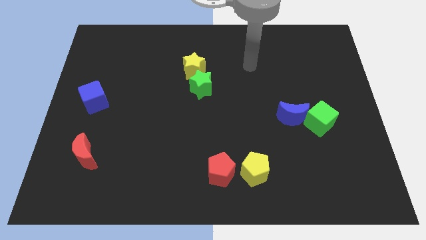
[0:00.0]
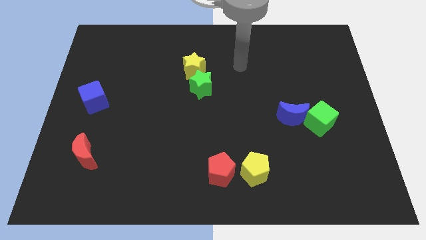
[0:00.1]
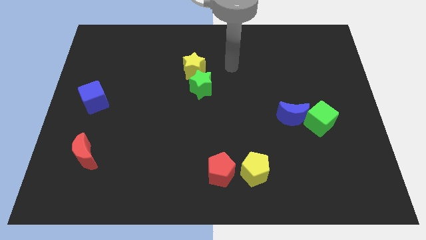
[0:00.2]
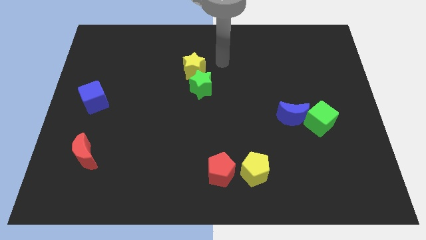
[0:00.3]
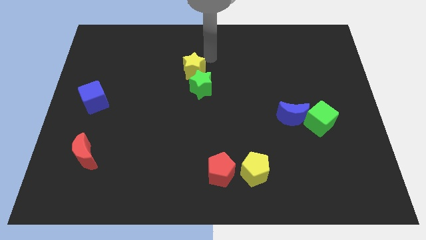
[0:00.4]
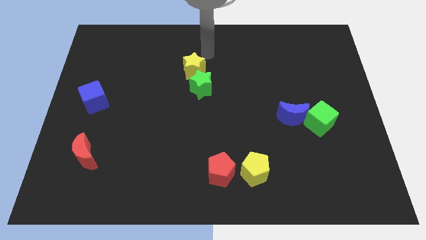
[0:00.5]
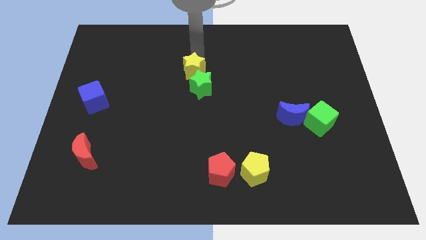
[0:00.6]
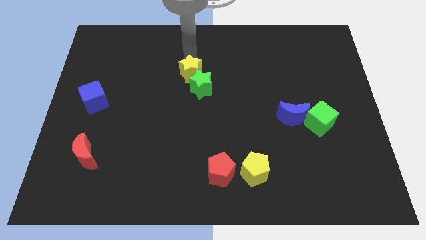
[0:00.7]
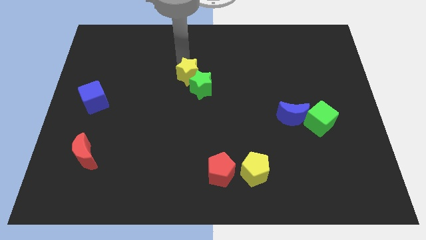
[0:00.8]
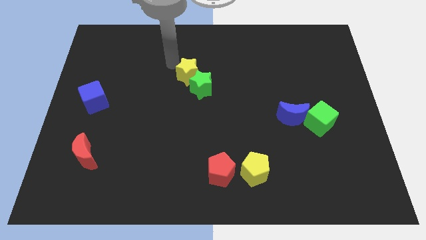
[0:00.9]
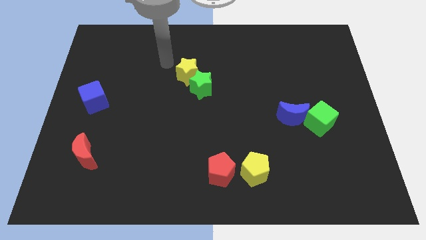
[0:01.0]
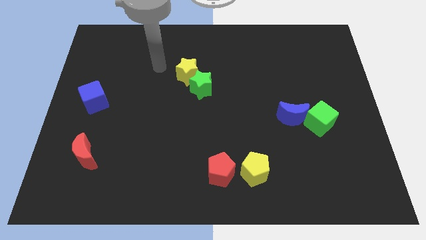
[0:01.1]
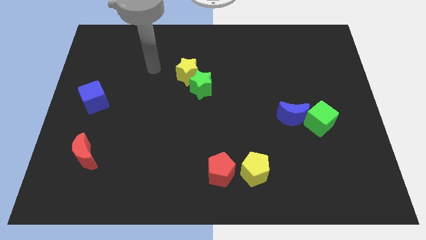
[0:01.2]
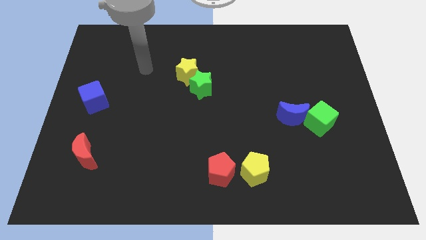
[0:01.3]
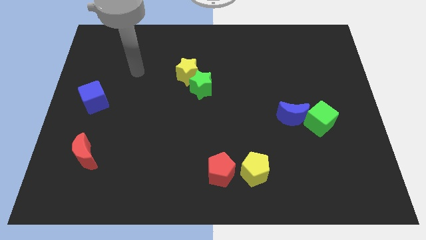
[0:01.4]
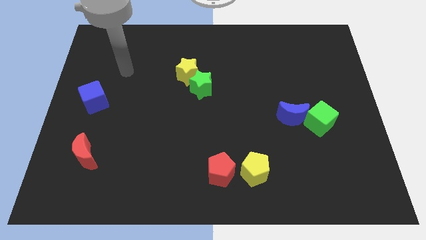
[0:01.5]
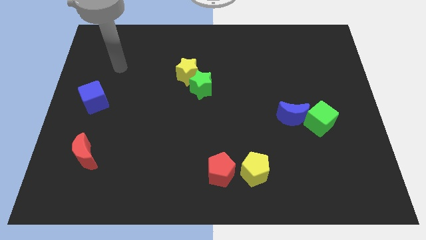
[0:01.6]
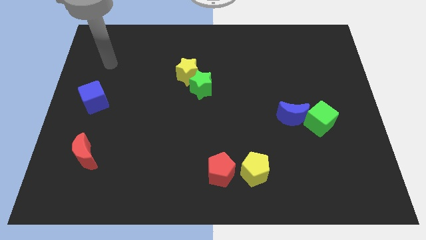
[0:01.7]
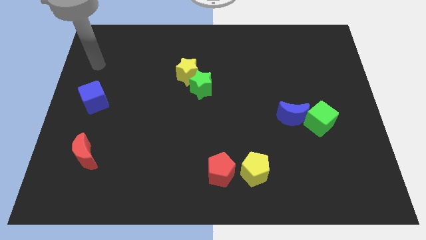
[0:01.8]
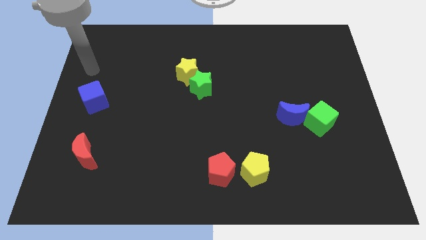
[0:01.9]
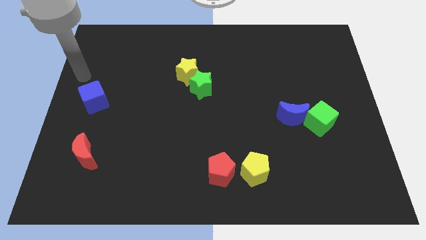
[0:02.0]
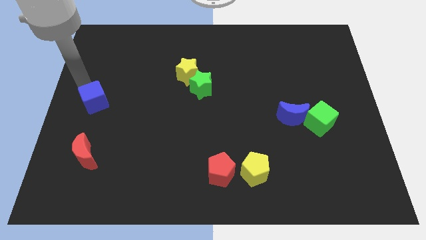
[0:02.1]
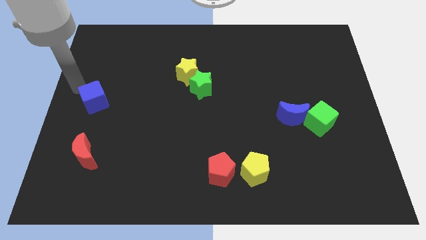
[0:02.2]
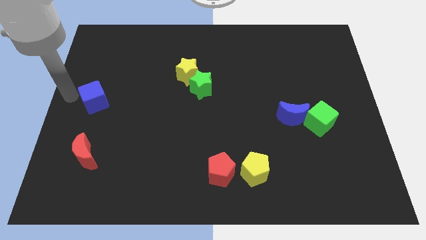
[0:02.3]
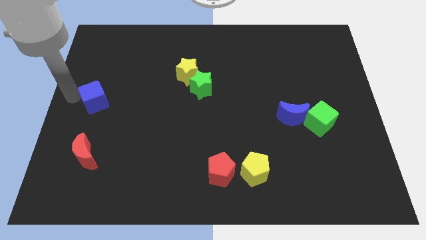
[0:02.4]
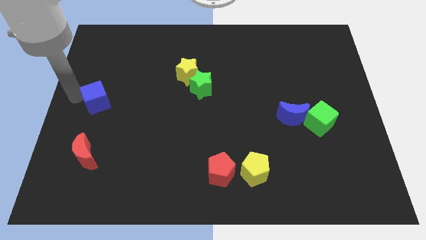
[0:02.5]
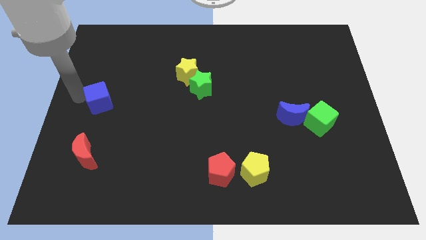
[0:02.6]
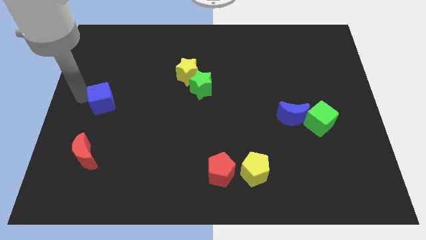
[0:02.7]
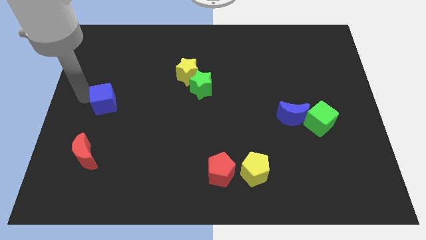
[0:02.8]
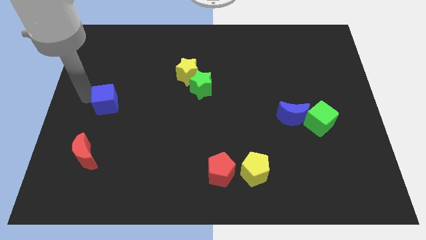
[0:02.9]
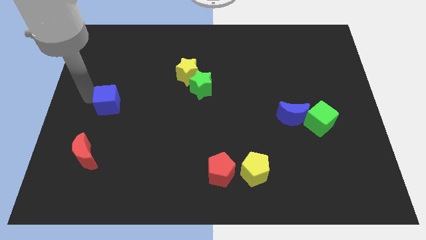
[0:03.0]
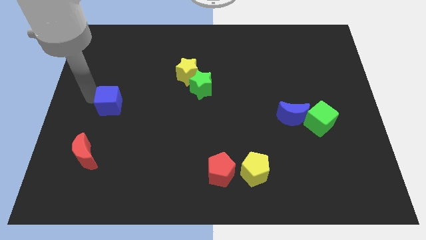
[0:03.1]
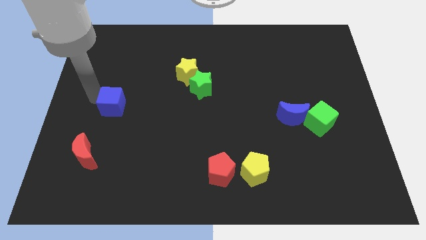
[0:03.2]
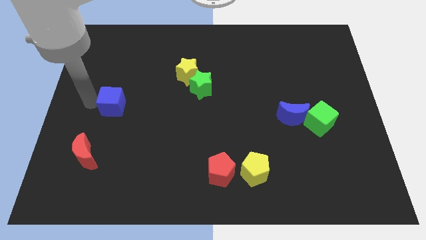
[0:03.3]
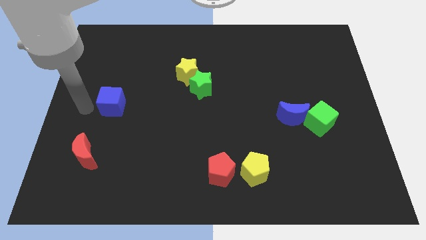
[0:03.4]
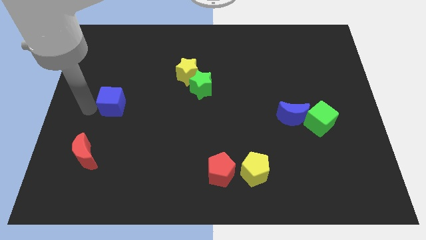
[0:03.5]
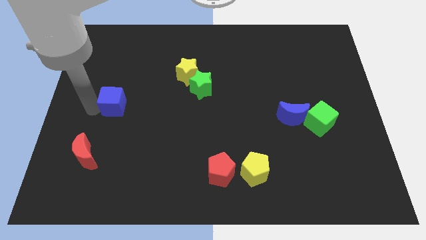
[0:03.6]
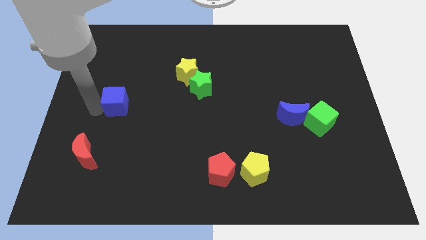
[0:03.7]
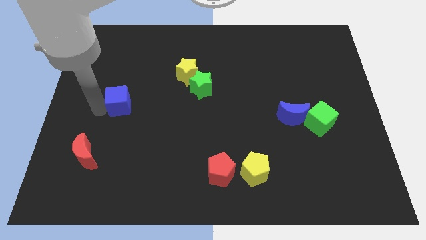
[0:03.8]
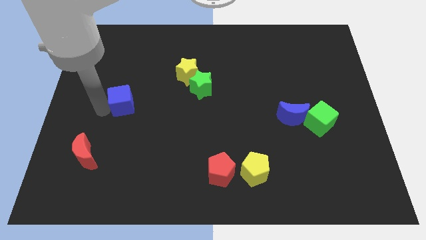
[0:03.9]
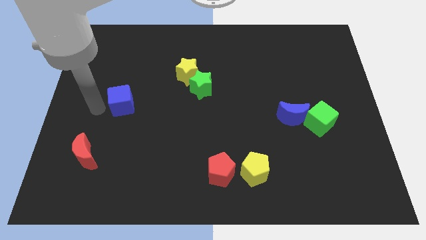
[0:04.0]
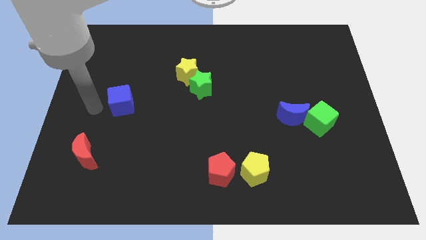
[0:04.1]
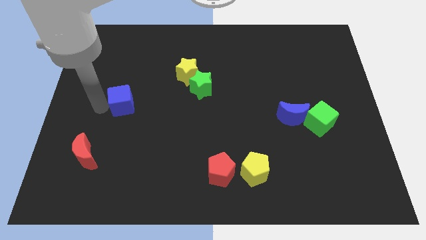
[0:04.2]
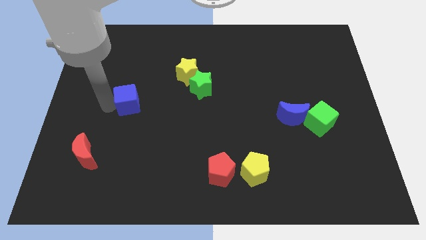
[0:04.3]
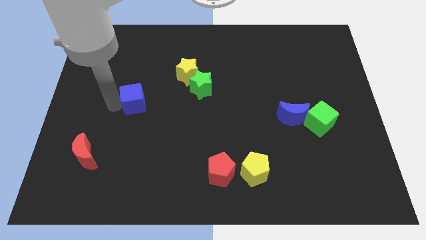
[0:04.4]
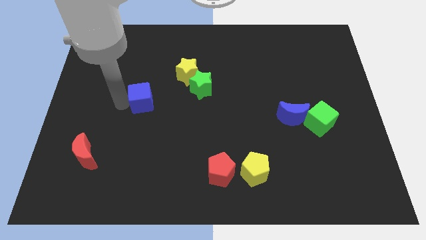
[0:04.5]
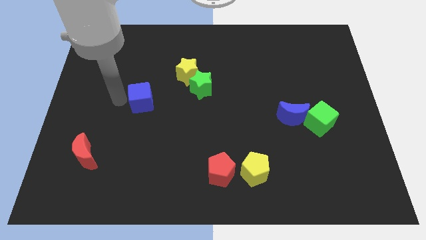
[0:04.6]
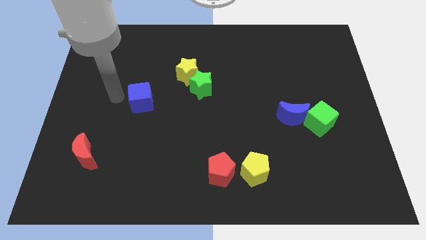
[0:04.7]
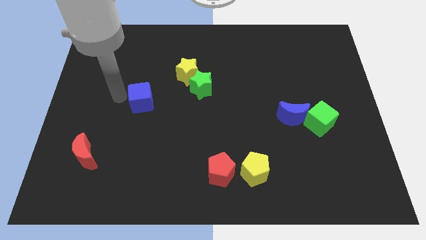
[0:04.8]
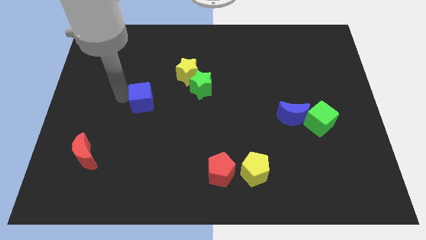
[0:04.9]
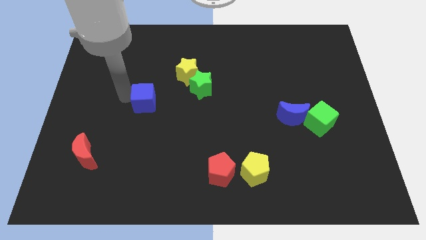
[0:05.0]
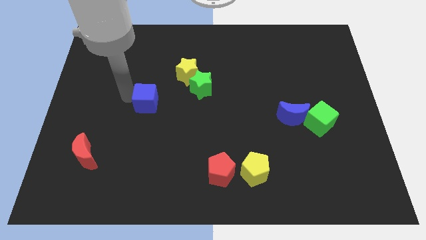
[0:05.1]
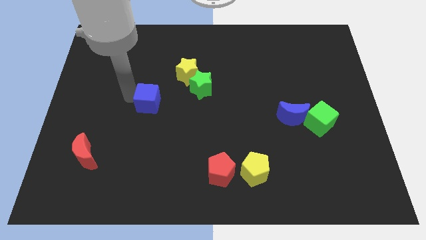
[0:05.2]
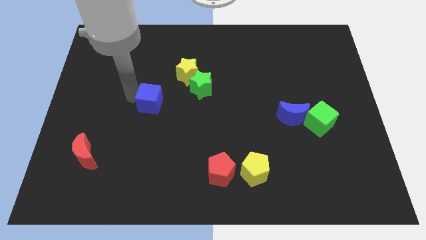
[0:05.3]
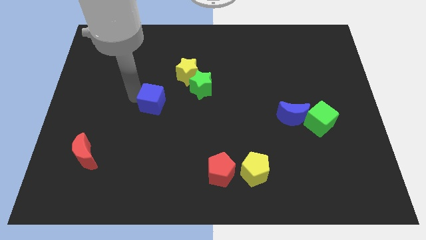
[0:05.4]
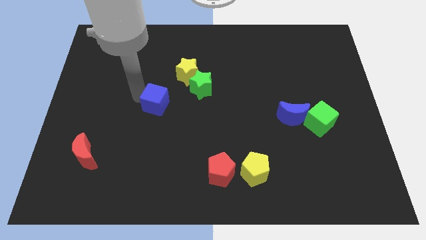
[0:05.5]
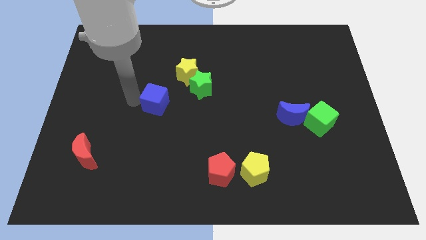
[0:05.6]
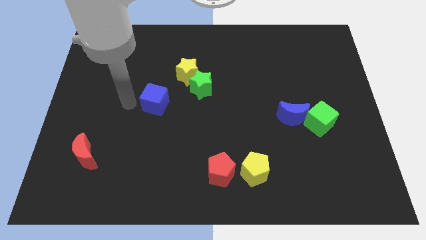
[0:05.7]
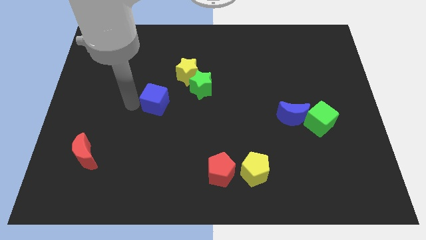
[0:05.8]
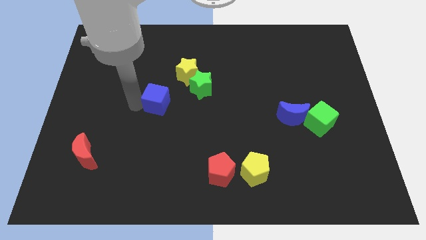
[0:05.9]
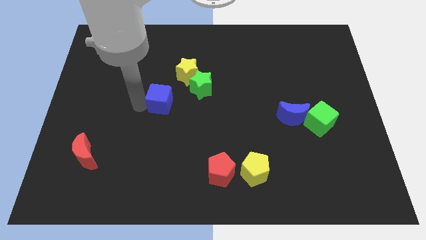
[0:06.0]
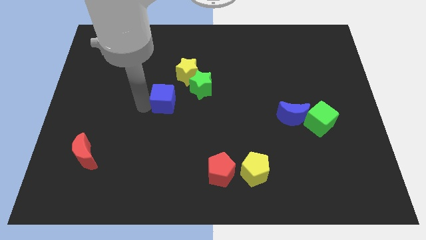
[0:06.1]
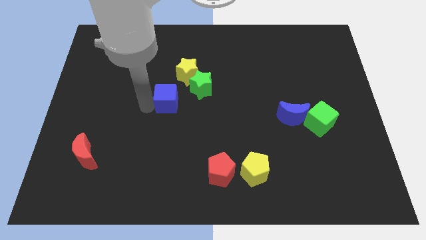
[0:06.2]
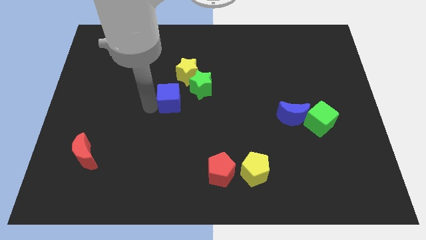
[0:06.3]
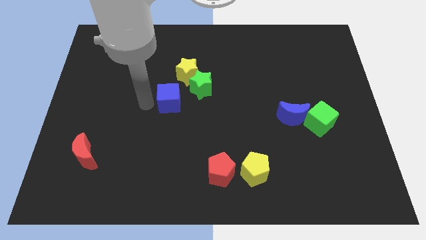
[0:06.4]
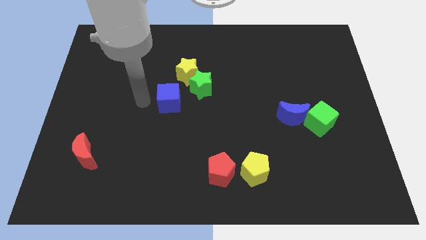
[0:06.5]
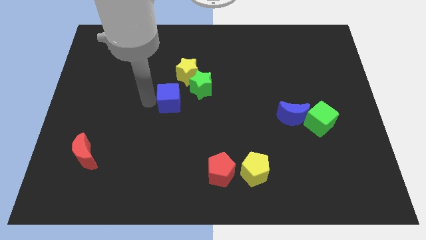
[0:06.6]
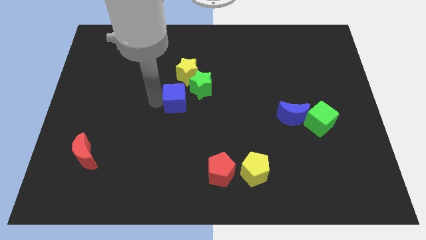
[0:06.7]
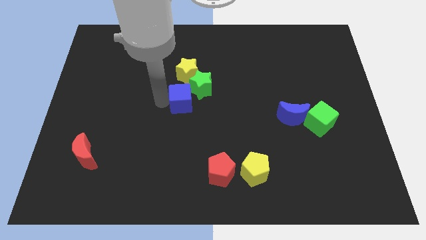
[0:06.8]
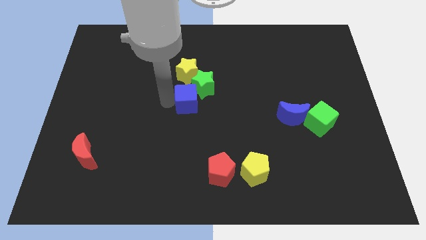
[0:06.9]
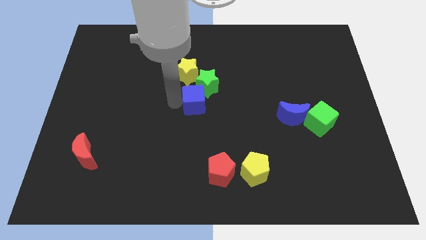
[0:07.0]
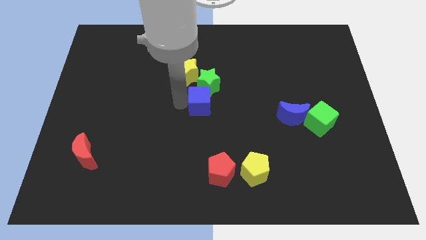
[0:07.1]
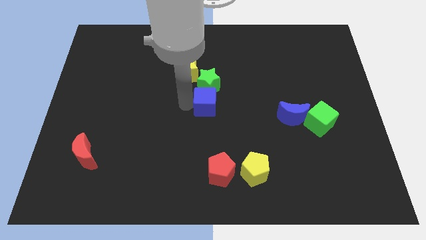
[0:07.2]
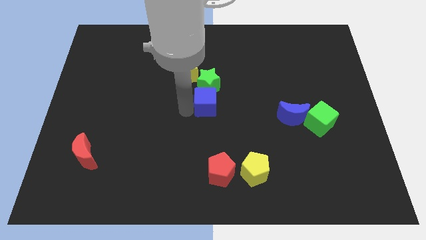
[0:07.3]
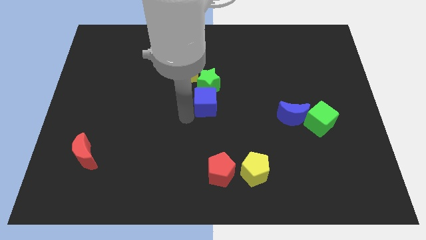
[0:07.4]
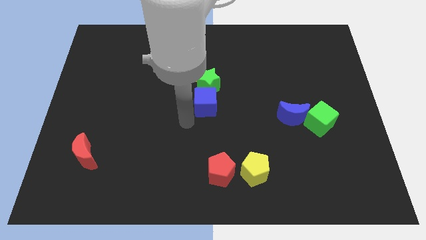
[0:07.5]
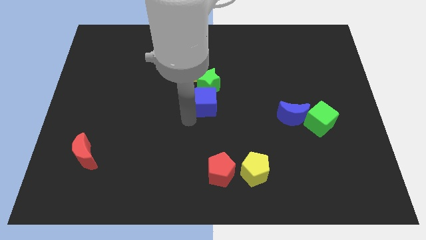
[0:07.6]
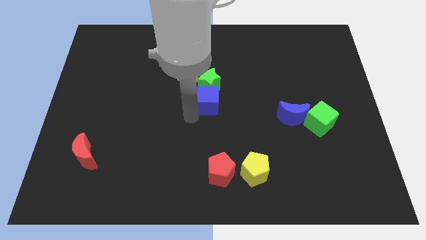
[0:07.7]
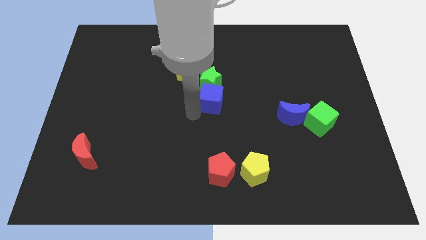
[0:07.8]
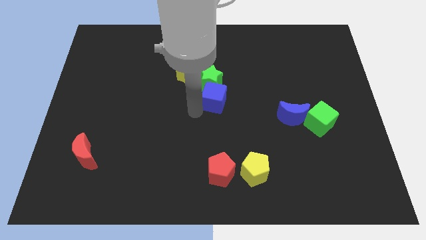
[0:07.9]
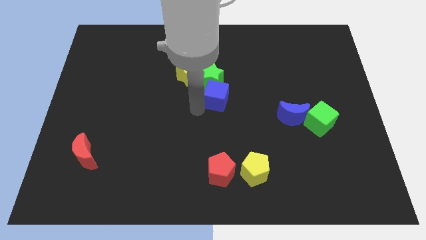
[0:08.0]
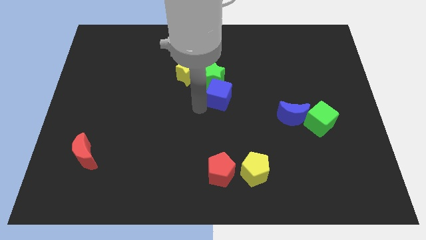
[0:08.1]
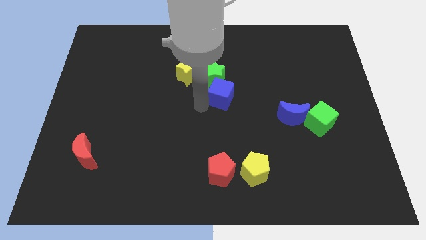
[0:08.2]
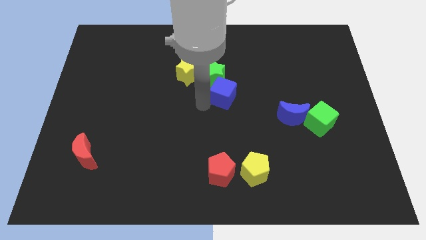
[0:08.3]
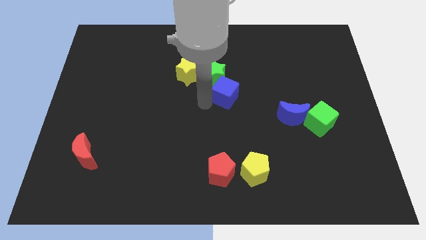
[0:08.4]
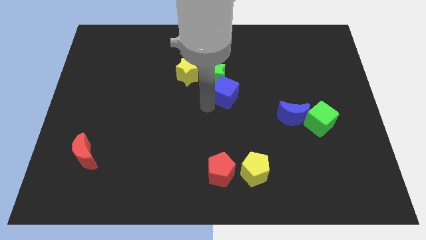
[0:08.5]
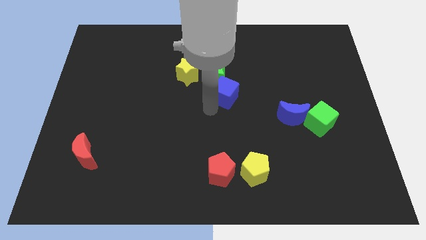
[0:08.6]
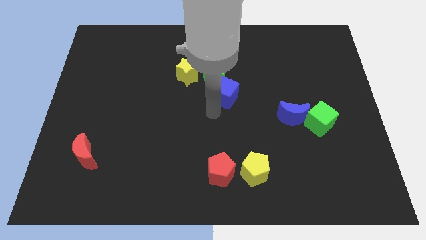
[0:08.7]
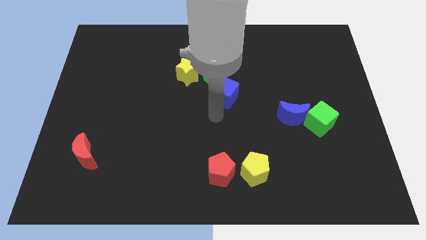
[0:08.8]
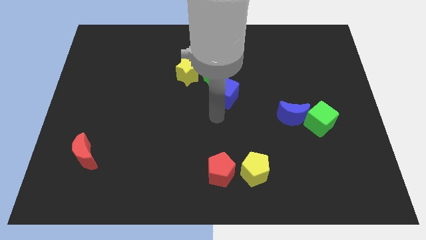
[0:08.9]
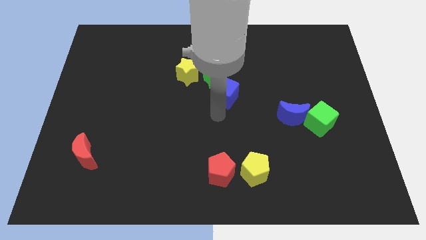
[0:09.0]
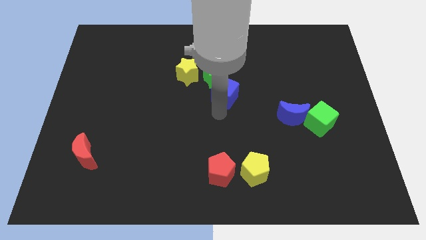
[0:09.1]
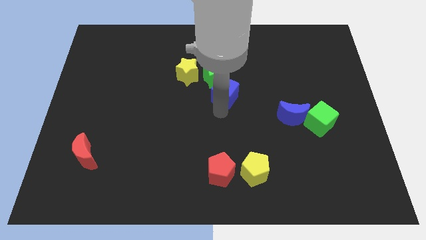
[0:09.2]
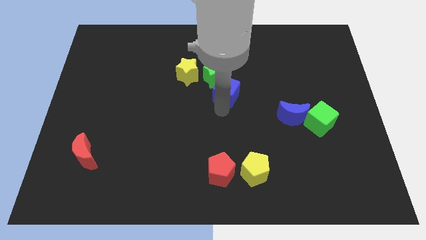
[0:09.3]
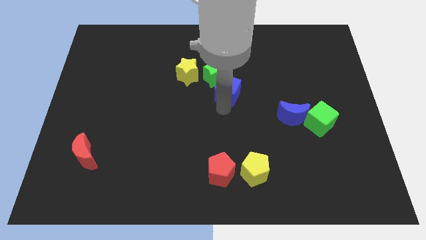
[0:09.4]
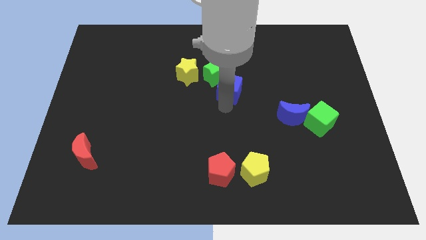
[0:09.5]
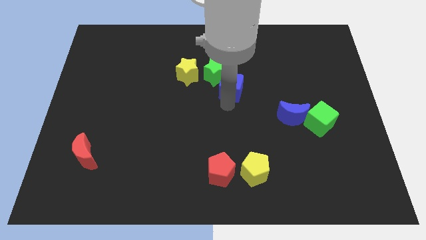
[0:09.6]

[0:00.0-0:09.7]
slide the blue cube to the right side of the yellow star
